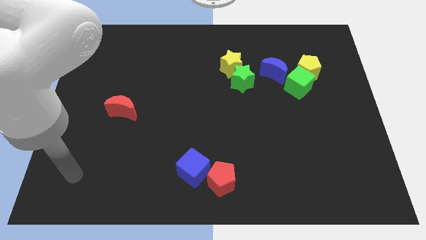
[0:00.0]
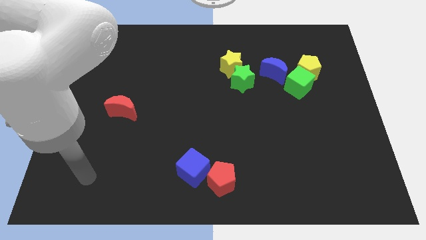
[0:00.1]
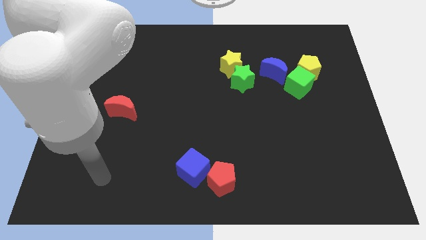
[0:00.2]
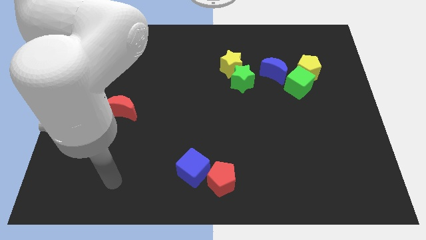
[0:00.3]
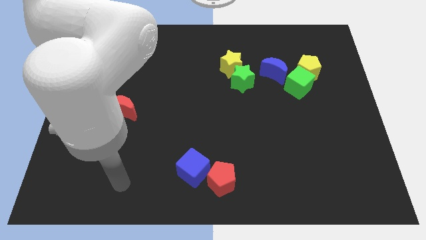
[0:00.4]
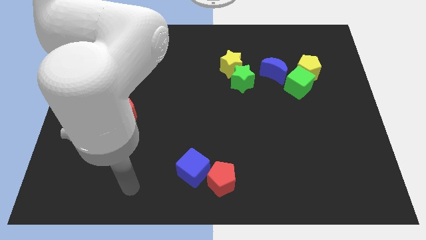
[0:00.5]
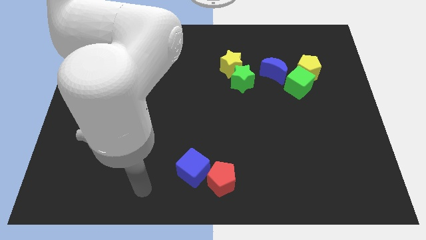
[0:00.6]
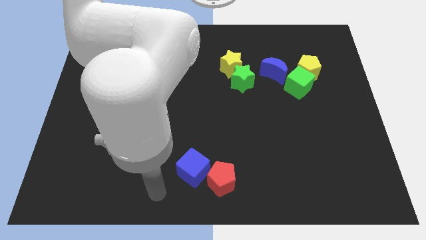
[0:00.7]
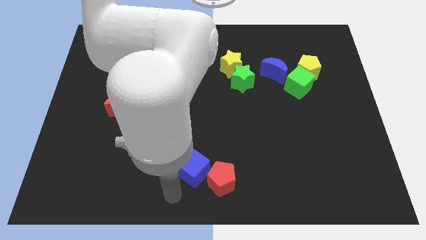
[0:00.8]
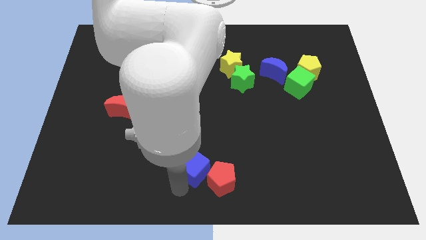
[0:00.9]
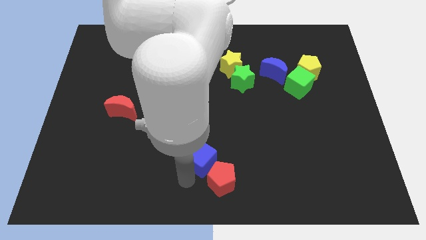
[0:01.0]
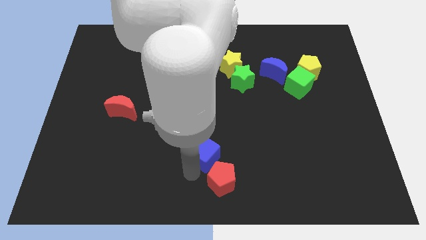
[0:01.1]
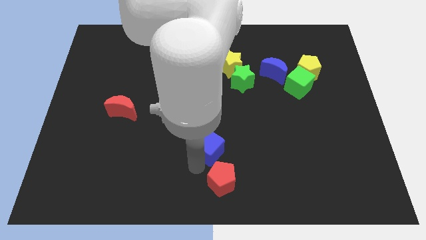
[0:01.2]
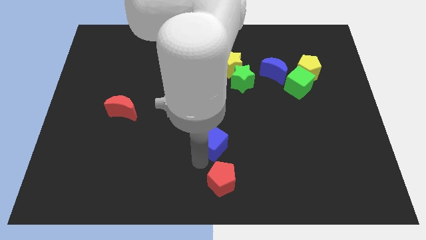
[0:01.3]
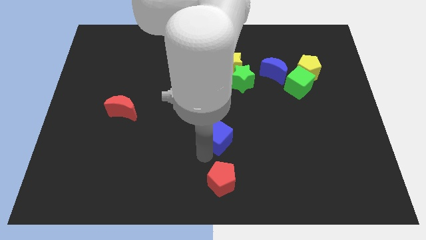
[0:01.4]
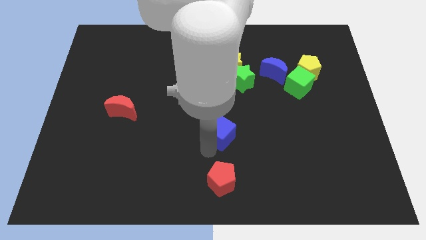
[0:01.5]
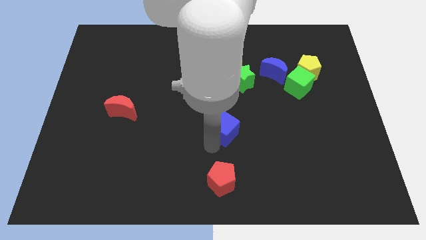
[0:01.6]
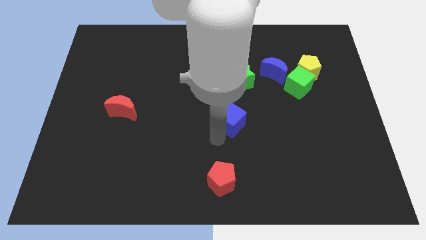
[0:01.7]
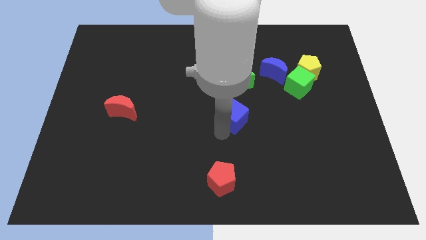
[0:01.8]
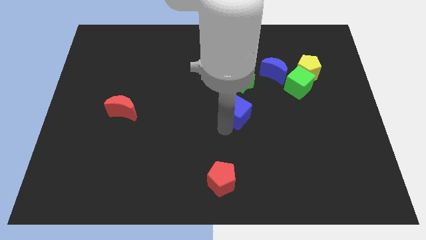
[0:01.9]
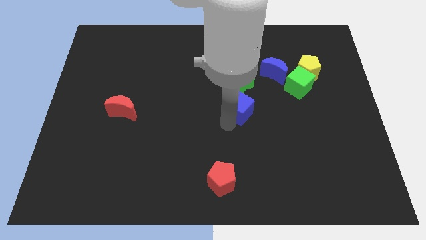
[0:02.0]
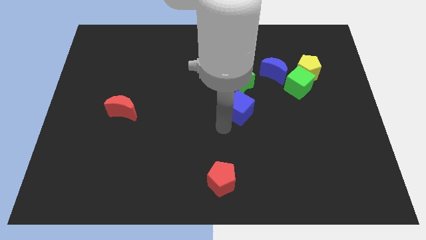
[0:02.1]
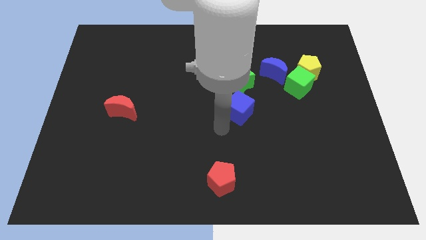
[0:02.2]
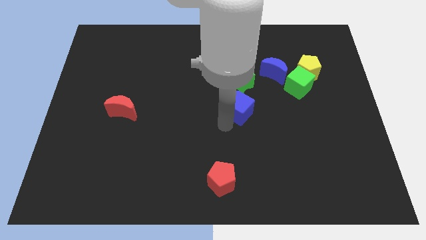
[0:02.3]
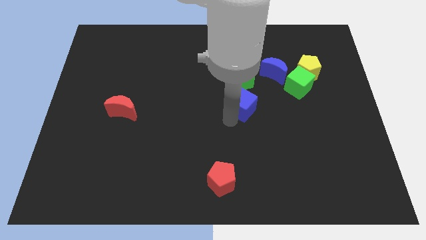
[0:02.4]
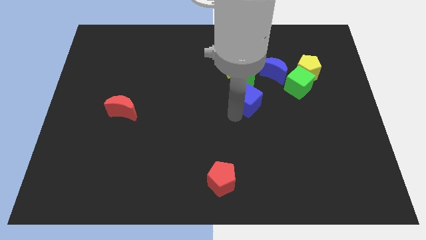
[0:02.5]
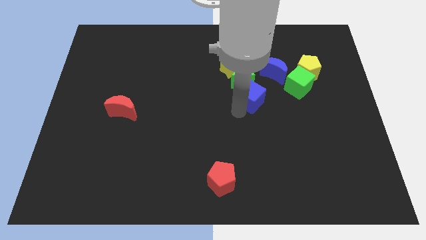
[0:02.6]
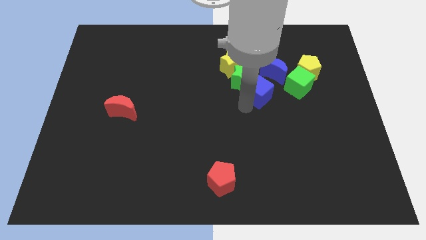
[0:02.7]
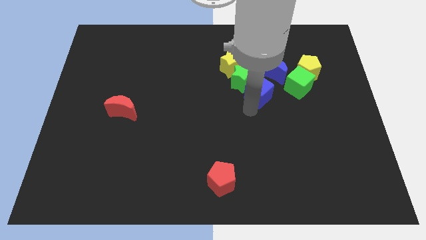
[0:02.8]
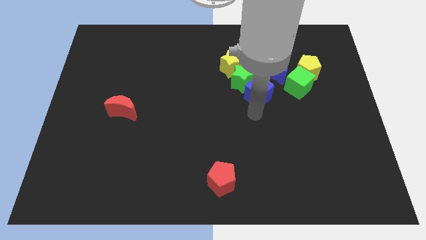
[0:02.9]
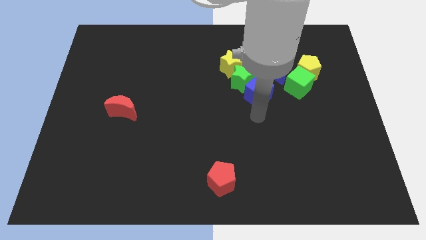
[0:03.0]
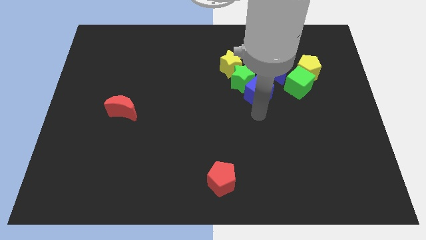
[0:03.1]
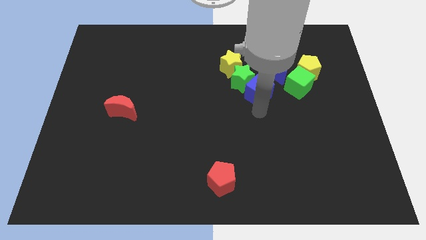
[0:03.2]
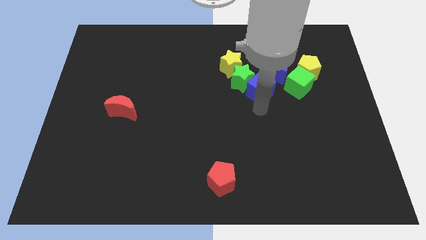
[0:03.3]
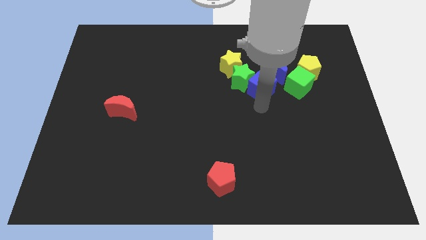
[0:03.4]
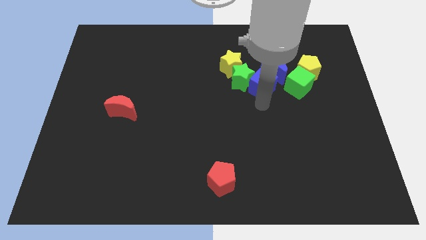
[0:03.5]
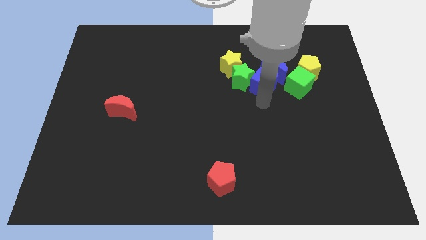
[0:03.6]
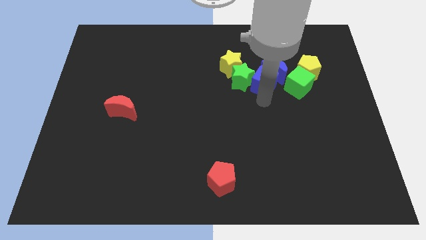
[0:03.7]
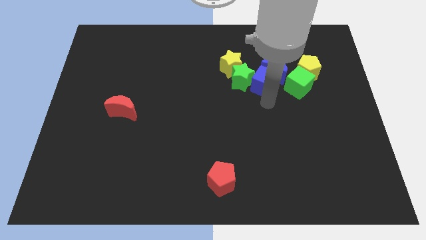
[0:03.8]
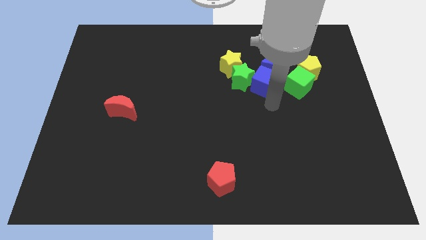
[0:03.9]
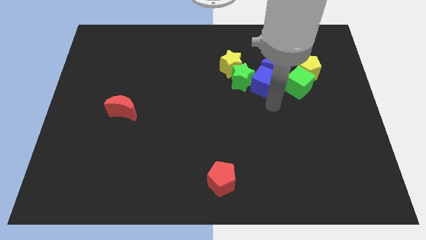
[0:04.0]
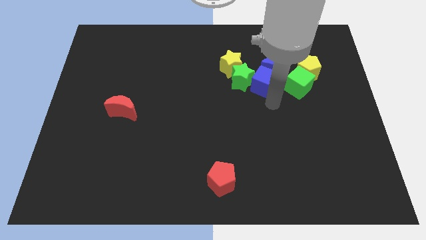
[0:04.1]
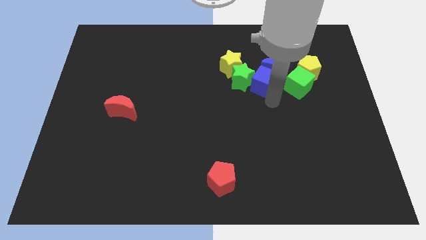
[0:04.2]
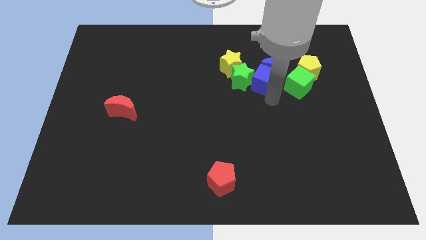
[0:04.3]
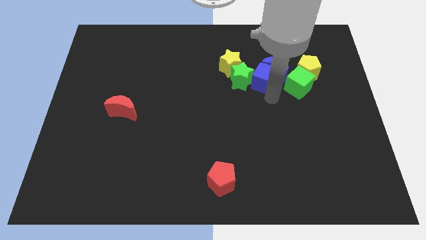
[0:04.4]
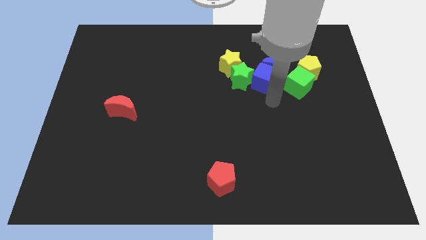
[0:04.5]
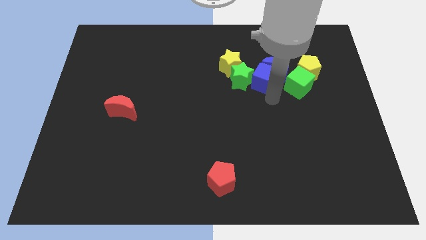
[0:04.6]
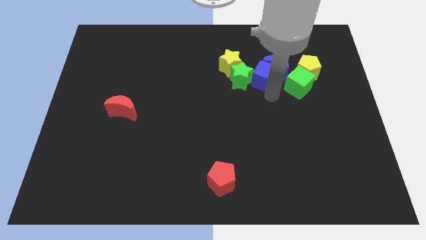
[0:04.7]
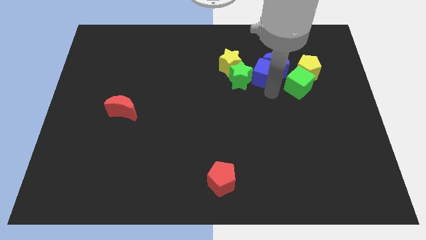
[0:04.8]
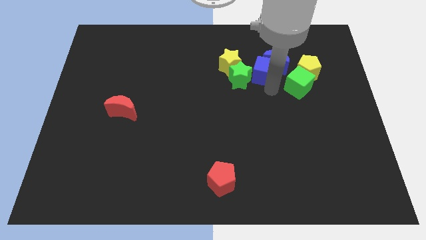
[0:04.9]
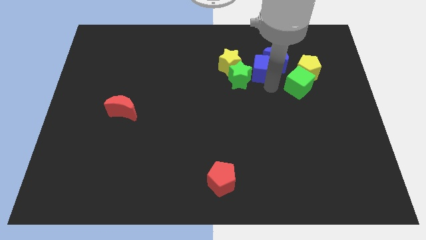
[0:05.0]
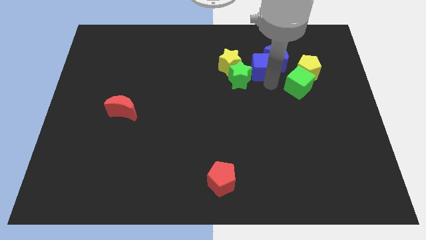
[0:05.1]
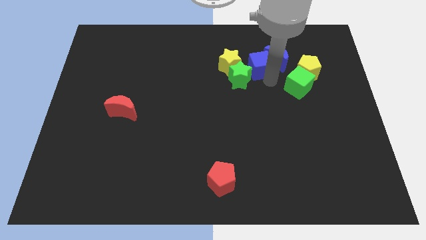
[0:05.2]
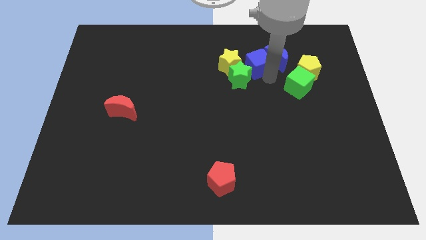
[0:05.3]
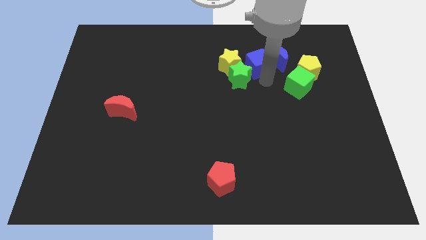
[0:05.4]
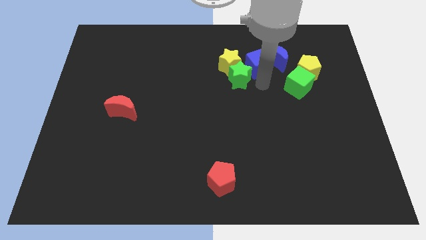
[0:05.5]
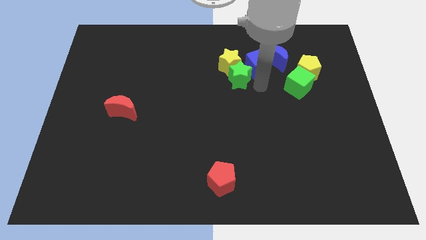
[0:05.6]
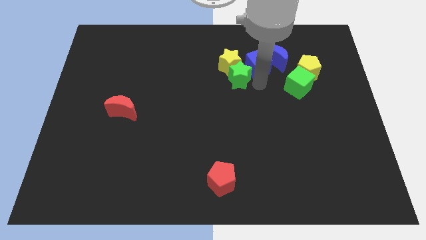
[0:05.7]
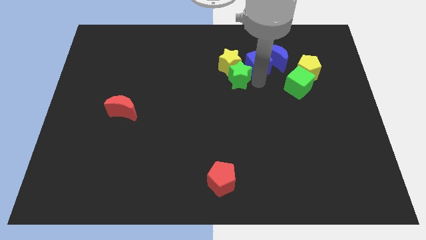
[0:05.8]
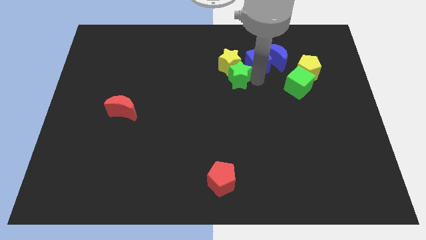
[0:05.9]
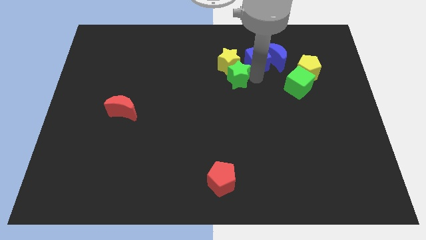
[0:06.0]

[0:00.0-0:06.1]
push the blue cube to the top left of the blue moon

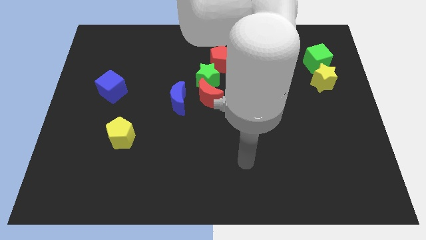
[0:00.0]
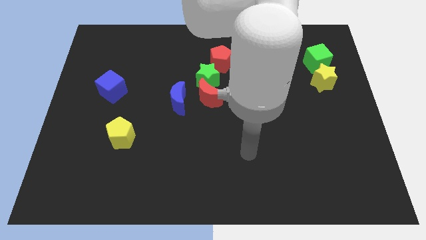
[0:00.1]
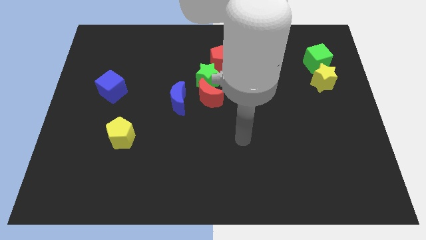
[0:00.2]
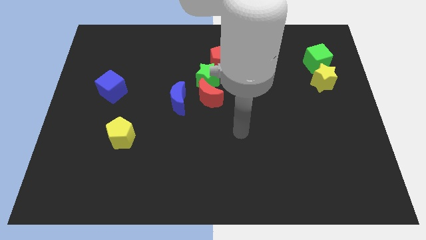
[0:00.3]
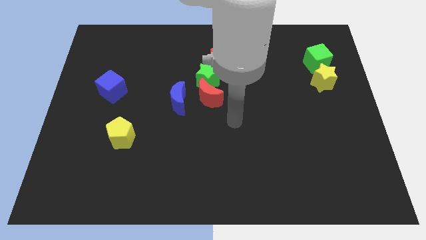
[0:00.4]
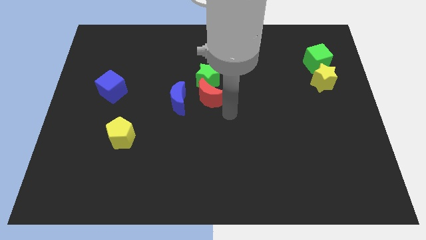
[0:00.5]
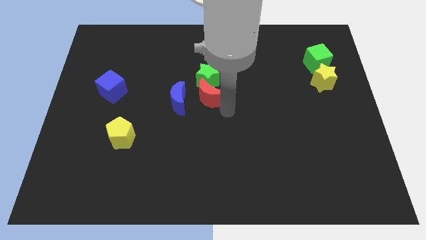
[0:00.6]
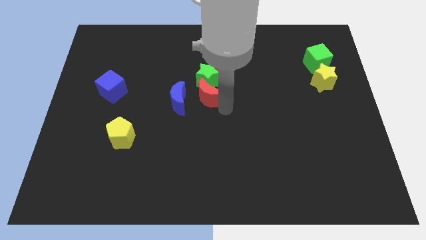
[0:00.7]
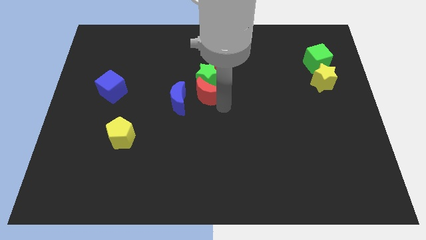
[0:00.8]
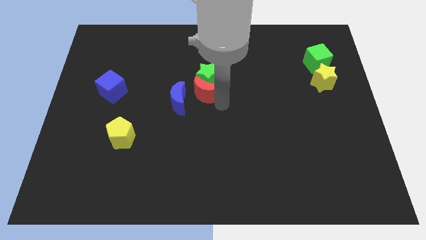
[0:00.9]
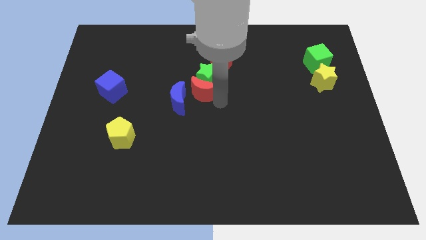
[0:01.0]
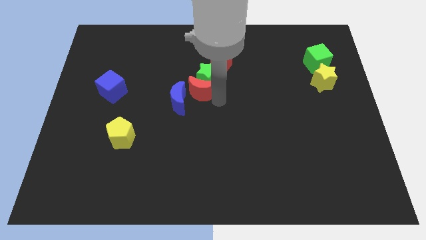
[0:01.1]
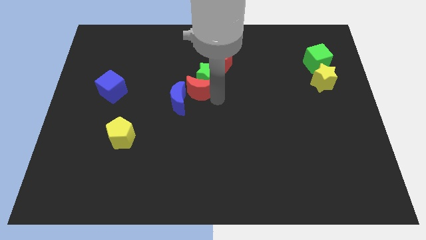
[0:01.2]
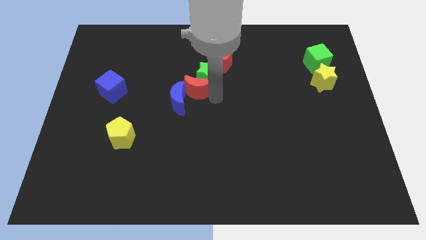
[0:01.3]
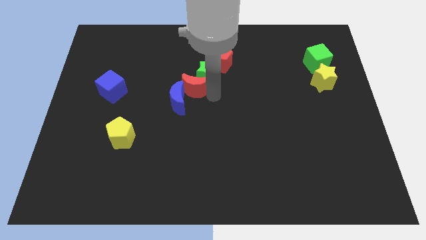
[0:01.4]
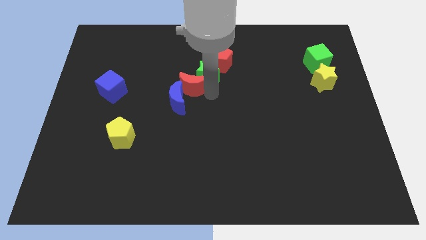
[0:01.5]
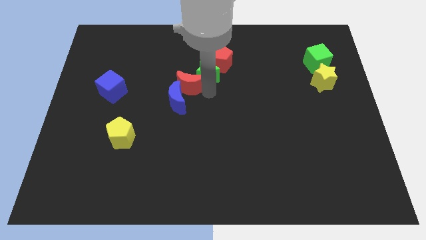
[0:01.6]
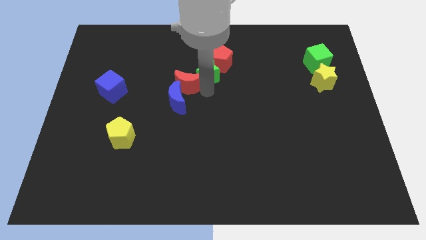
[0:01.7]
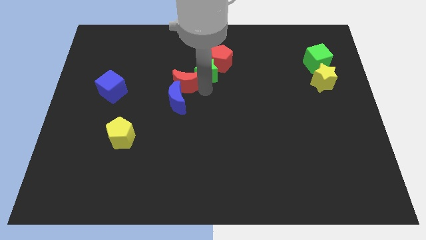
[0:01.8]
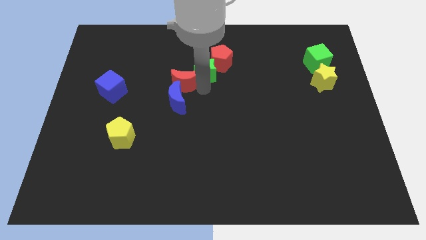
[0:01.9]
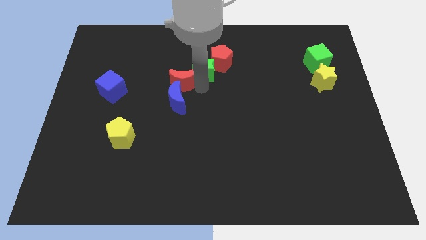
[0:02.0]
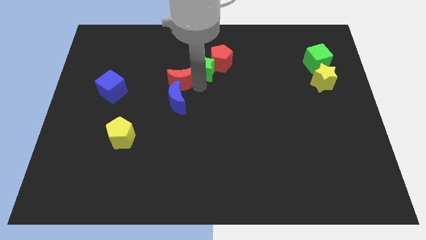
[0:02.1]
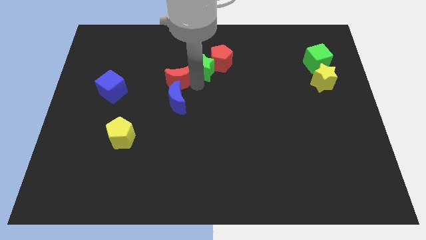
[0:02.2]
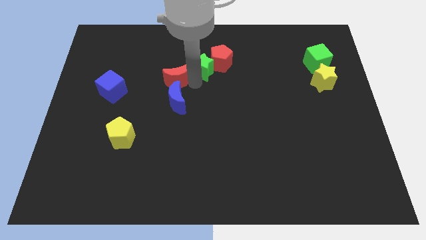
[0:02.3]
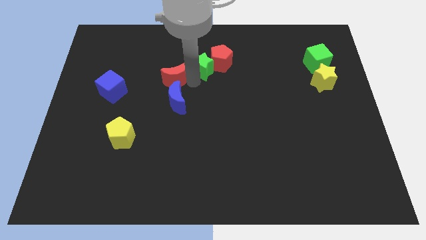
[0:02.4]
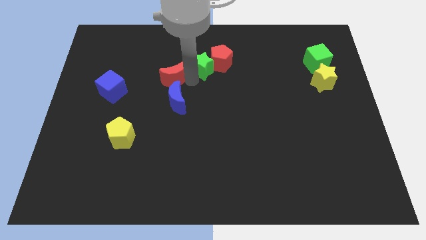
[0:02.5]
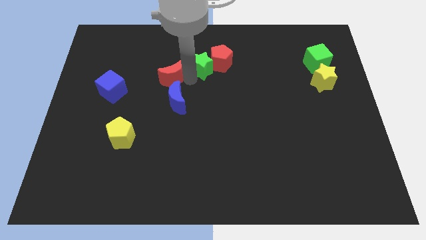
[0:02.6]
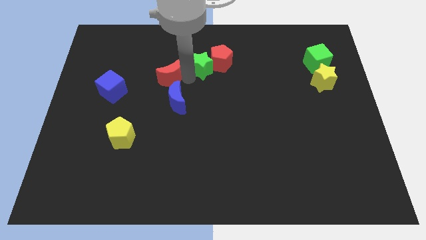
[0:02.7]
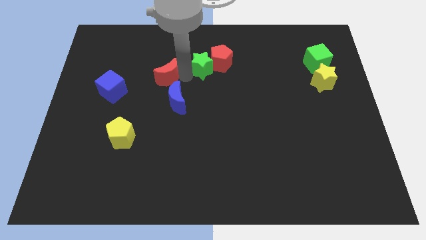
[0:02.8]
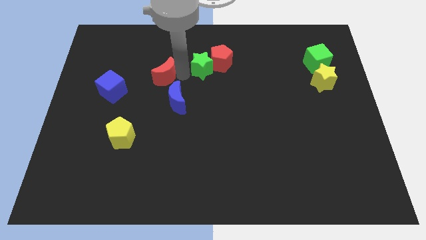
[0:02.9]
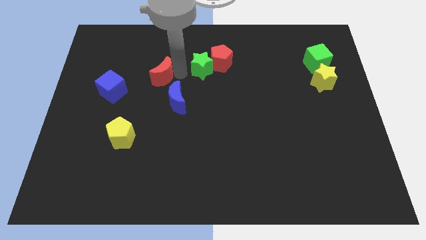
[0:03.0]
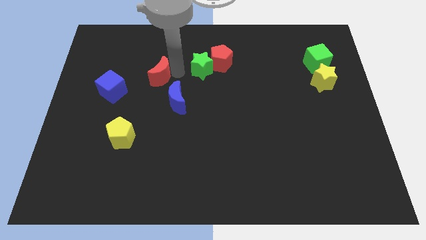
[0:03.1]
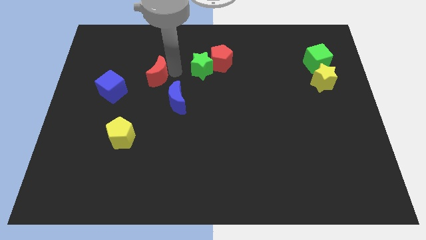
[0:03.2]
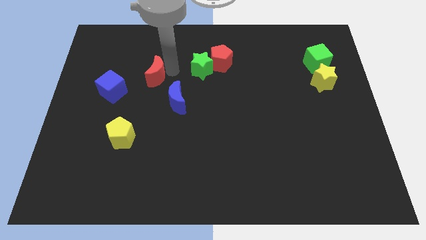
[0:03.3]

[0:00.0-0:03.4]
slide the red moon to the top right of the blue cube
